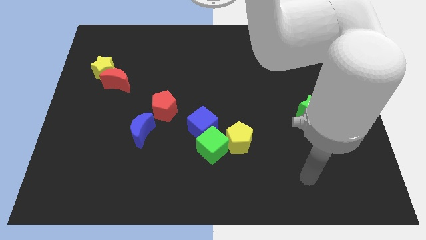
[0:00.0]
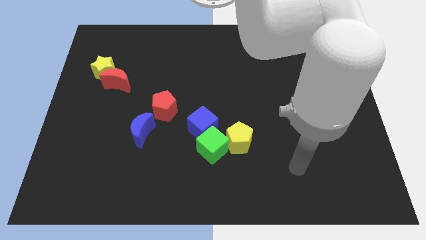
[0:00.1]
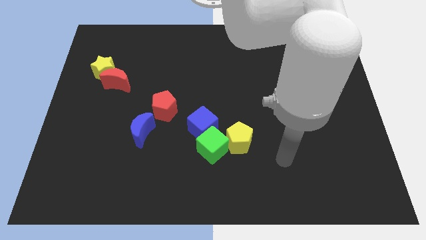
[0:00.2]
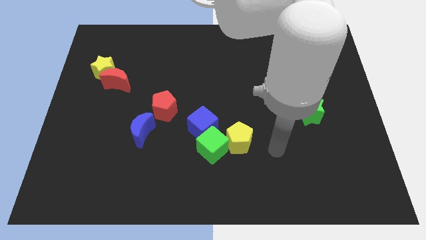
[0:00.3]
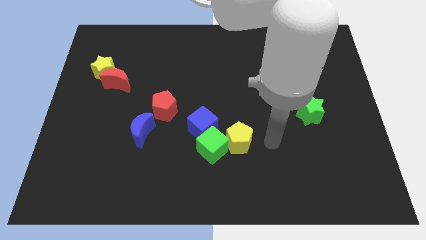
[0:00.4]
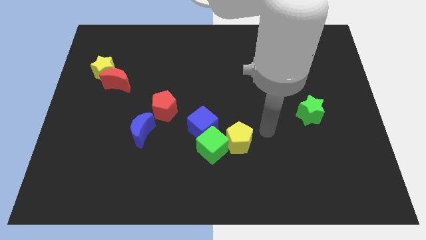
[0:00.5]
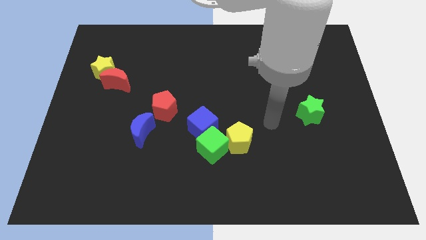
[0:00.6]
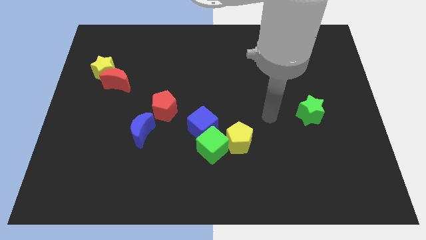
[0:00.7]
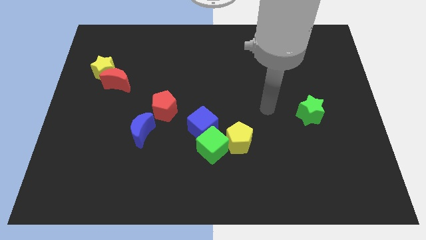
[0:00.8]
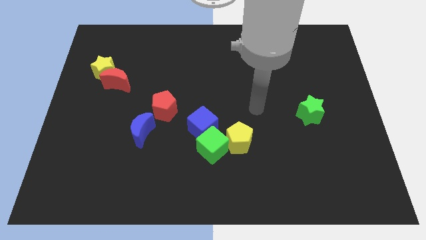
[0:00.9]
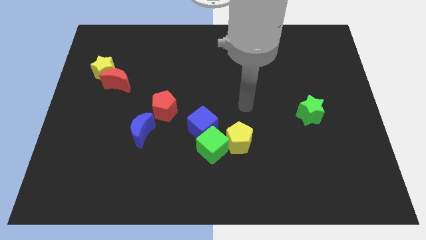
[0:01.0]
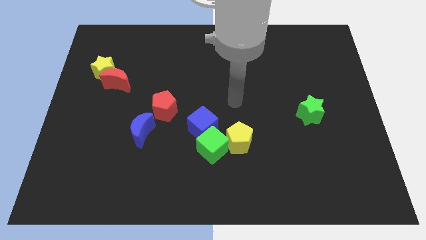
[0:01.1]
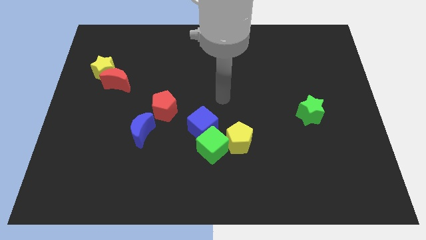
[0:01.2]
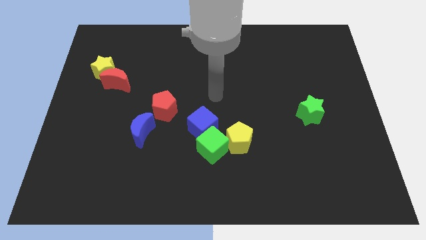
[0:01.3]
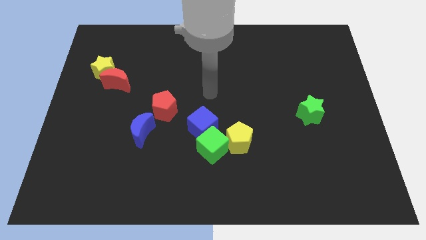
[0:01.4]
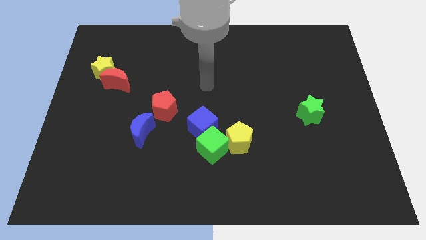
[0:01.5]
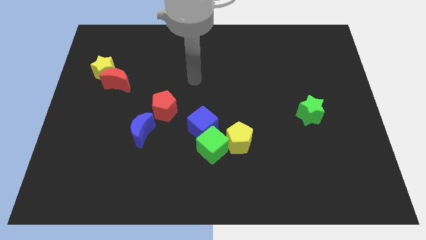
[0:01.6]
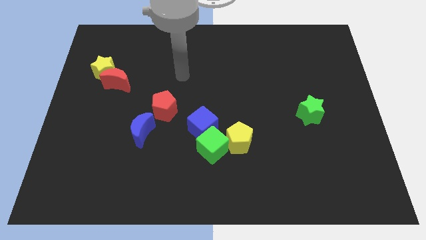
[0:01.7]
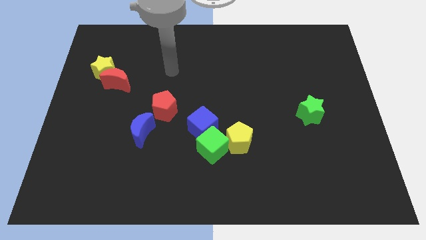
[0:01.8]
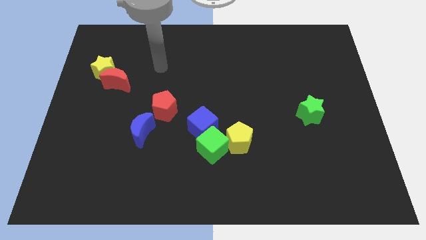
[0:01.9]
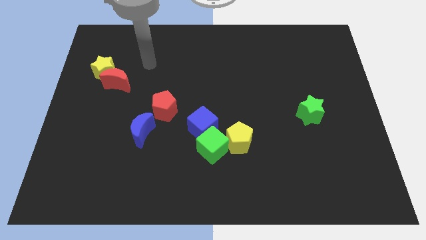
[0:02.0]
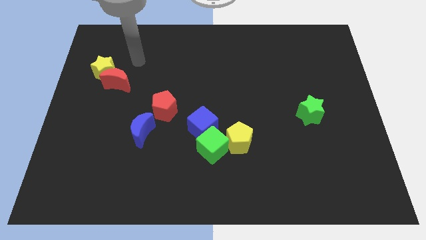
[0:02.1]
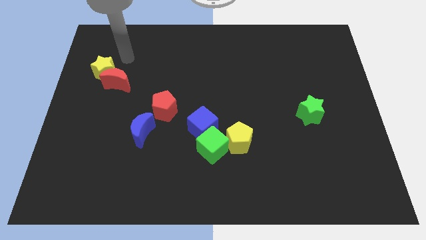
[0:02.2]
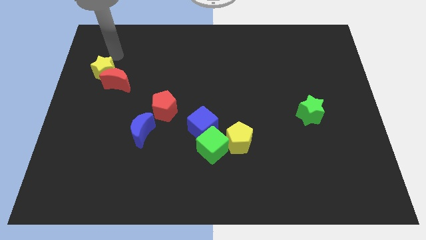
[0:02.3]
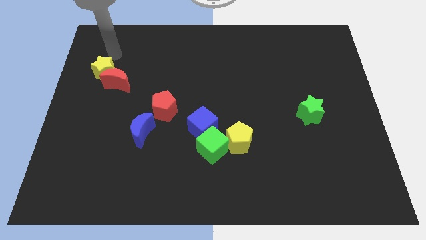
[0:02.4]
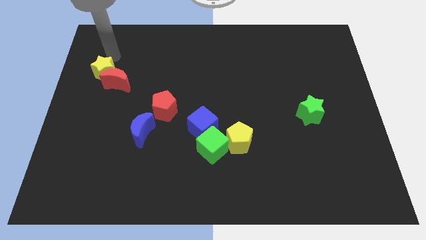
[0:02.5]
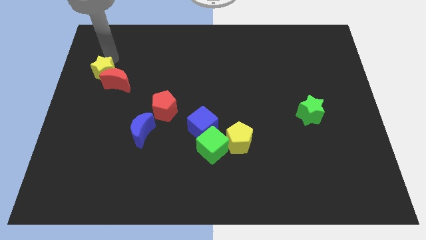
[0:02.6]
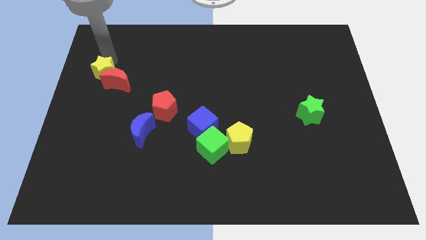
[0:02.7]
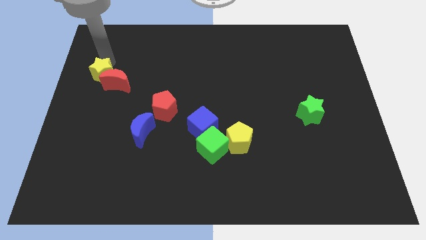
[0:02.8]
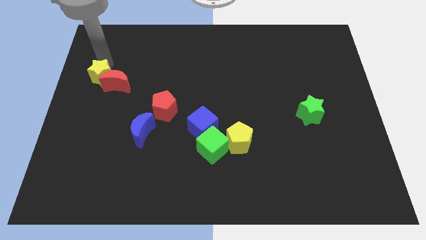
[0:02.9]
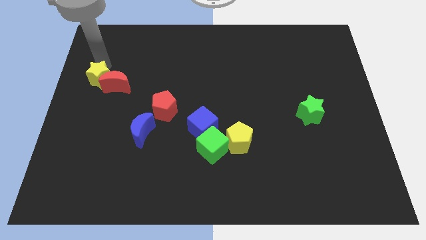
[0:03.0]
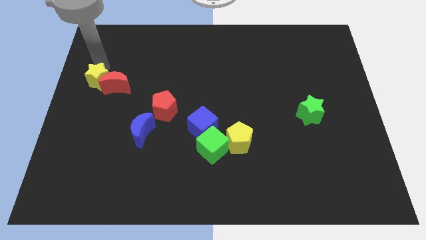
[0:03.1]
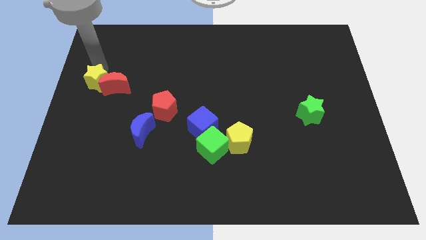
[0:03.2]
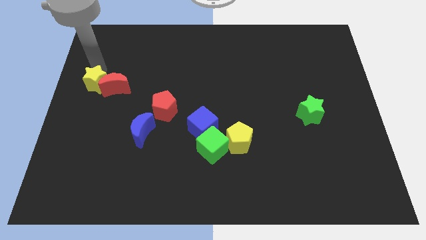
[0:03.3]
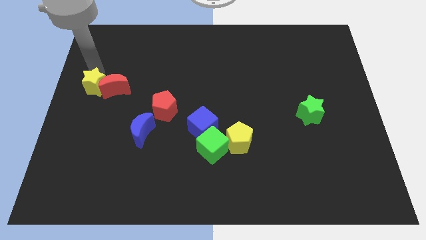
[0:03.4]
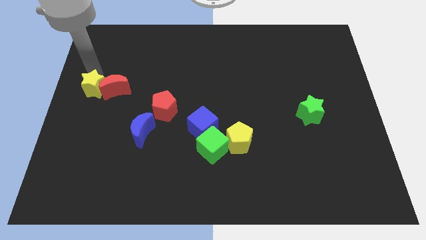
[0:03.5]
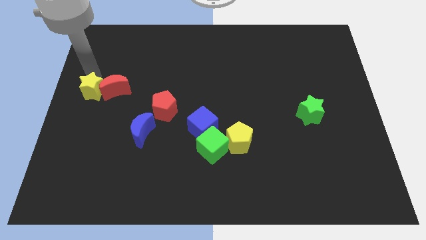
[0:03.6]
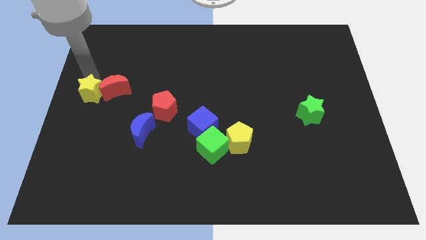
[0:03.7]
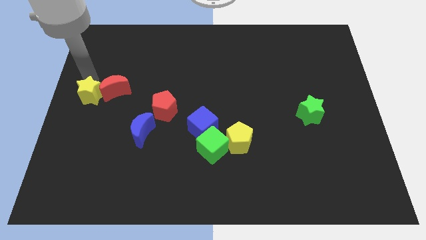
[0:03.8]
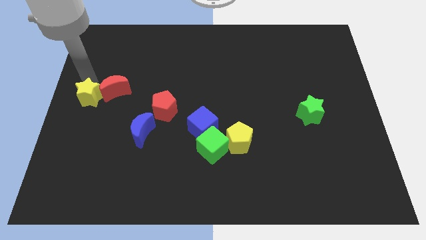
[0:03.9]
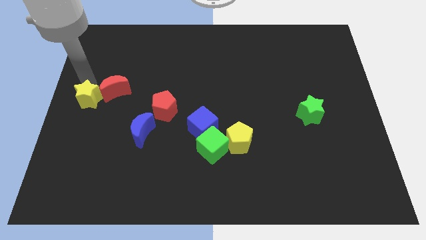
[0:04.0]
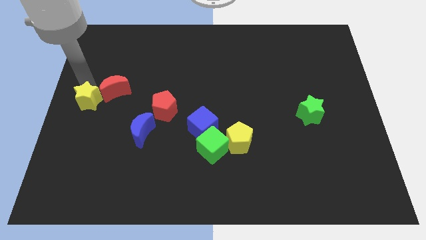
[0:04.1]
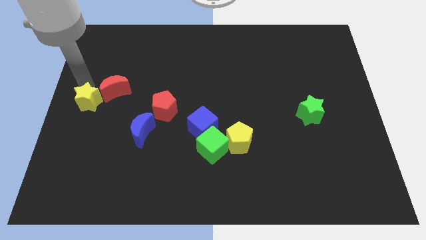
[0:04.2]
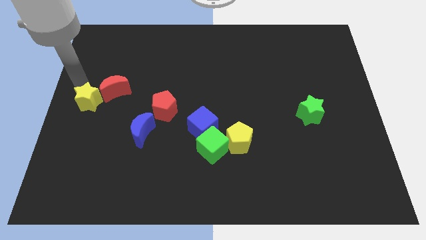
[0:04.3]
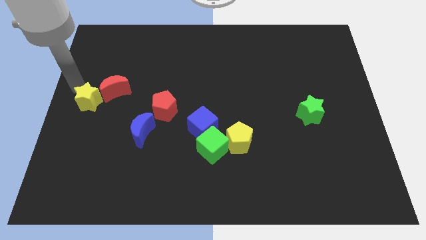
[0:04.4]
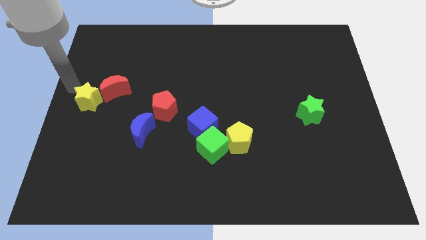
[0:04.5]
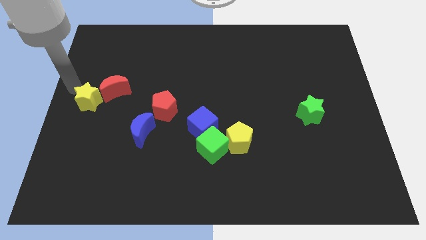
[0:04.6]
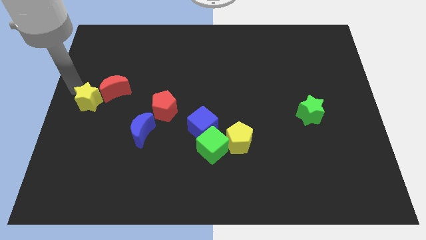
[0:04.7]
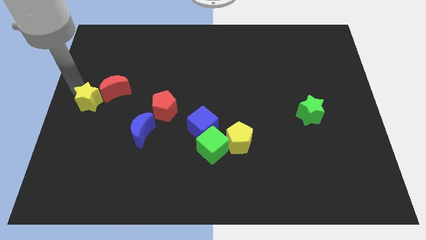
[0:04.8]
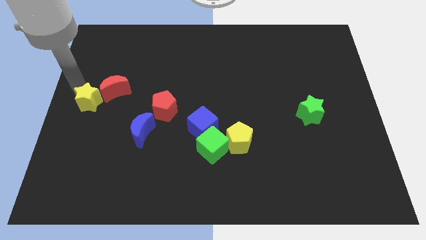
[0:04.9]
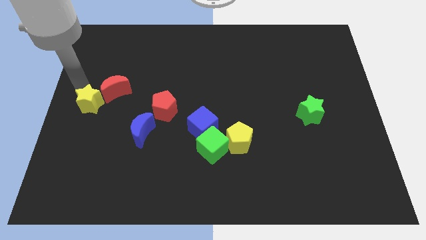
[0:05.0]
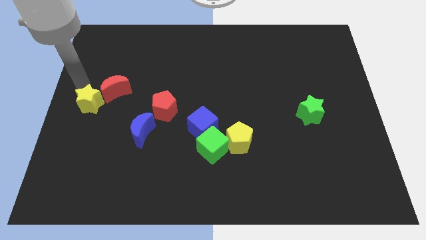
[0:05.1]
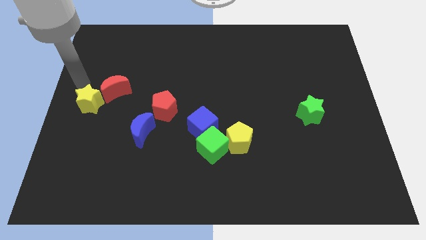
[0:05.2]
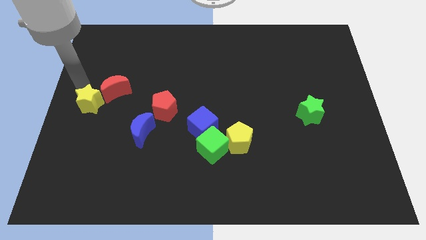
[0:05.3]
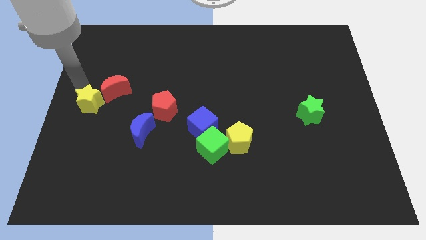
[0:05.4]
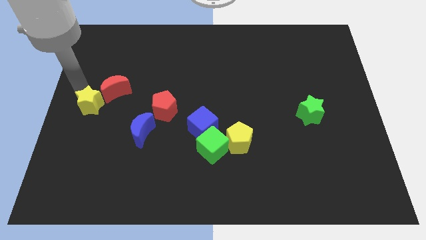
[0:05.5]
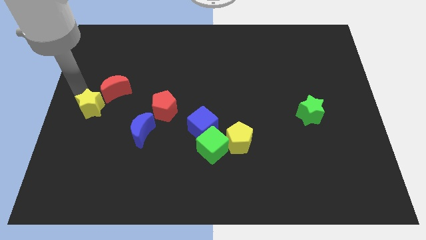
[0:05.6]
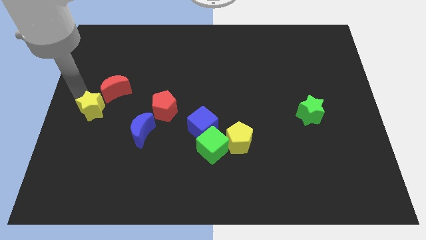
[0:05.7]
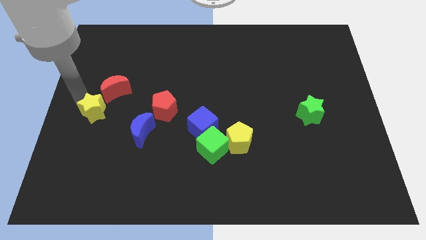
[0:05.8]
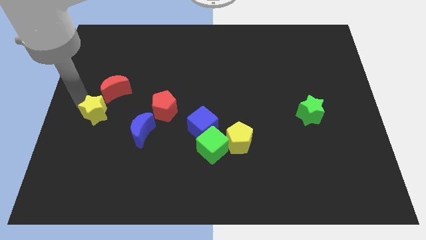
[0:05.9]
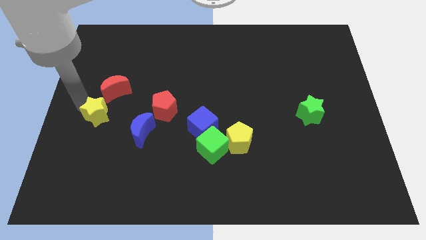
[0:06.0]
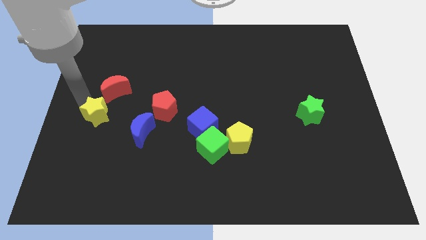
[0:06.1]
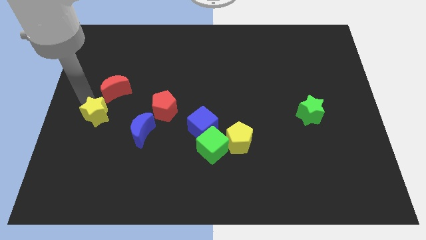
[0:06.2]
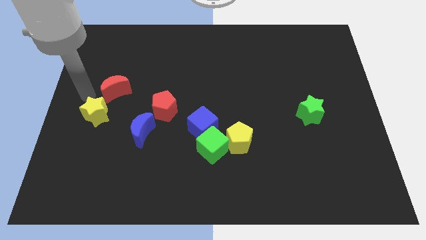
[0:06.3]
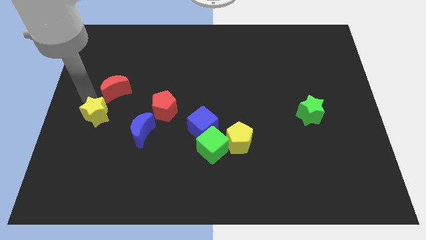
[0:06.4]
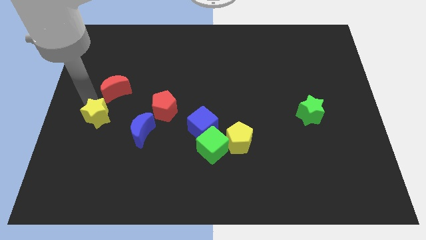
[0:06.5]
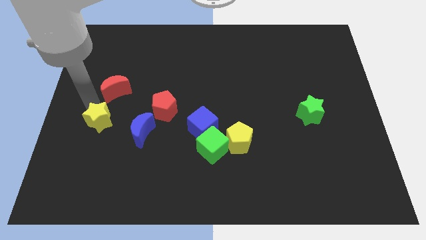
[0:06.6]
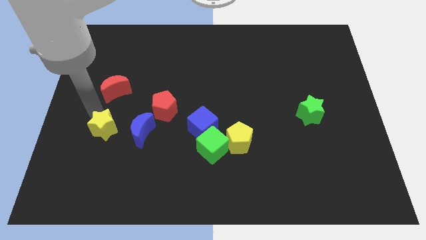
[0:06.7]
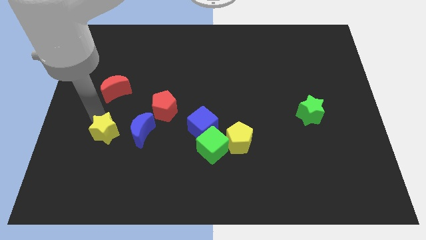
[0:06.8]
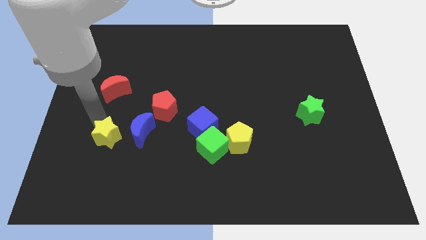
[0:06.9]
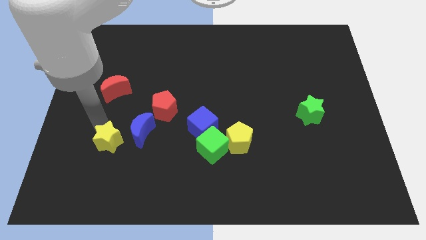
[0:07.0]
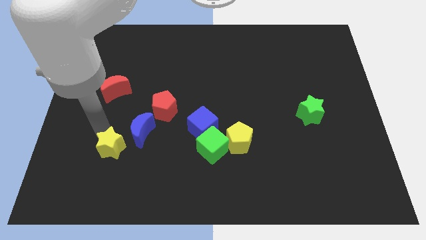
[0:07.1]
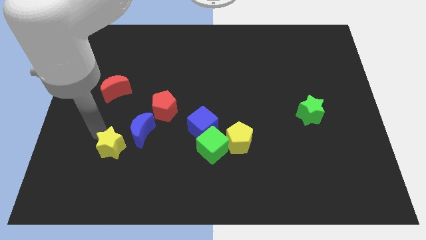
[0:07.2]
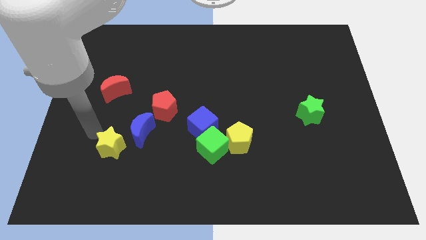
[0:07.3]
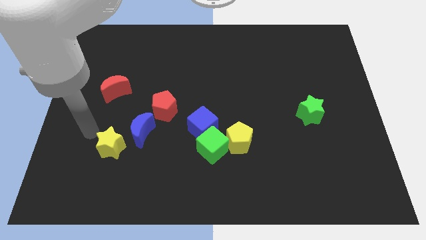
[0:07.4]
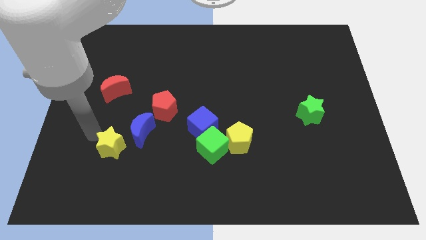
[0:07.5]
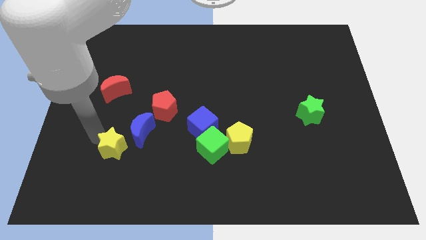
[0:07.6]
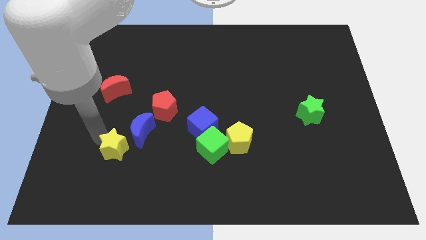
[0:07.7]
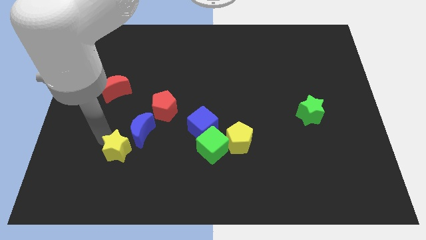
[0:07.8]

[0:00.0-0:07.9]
slide the yellow star below the blue moon
